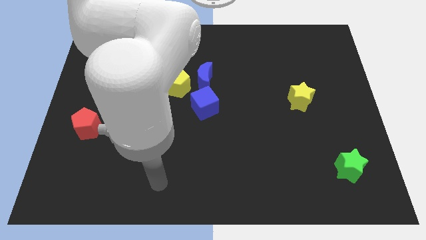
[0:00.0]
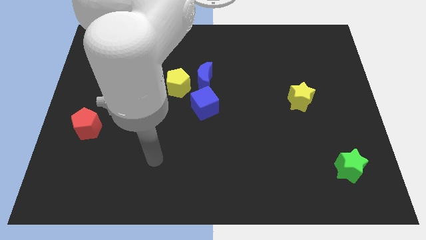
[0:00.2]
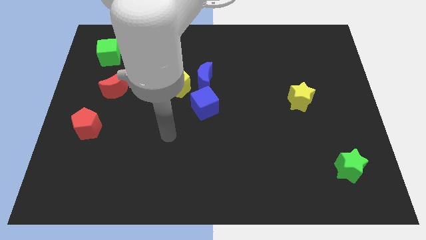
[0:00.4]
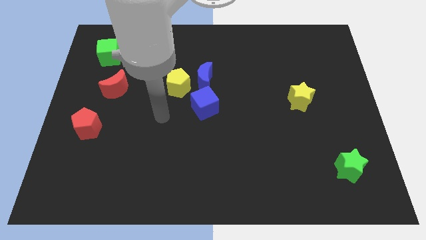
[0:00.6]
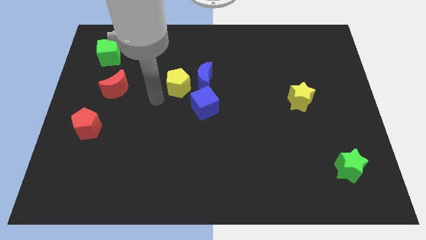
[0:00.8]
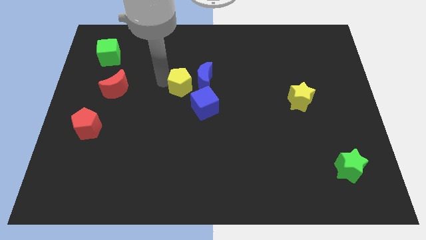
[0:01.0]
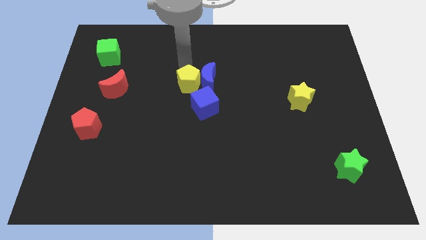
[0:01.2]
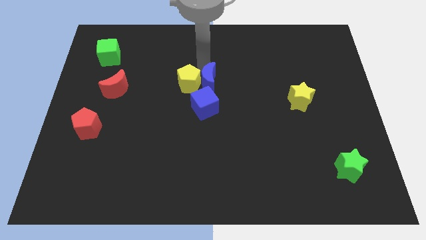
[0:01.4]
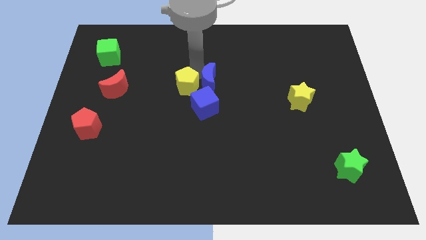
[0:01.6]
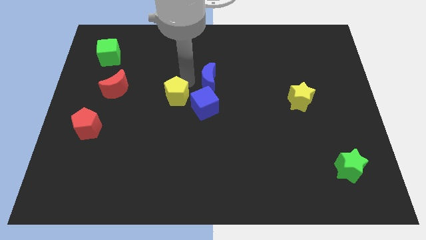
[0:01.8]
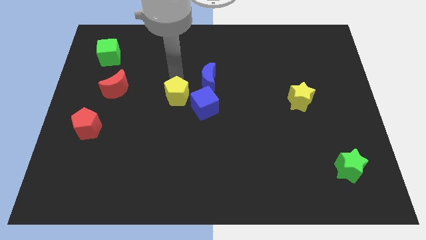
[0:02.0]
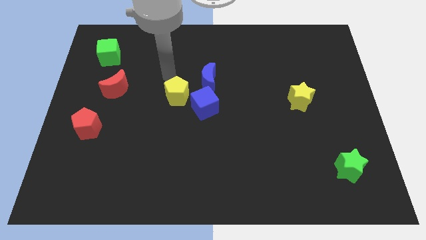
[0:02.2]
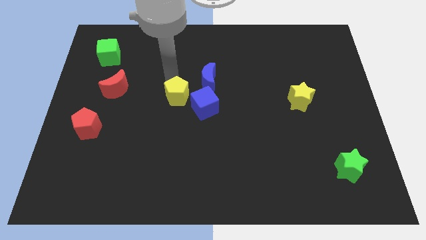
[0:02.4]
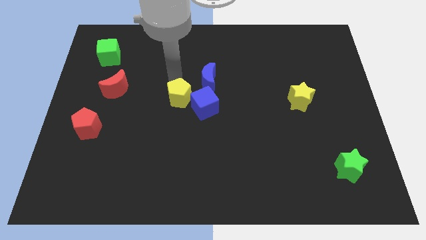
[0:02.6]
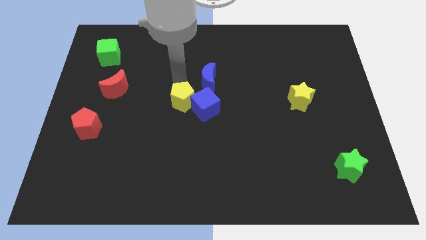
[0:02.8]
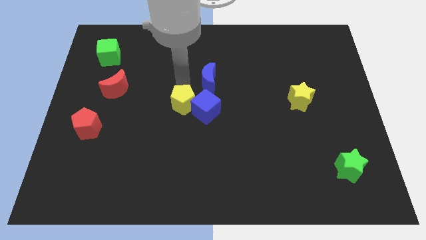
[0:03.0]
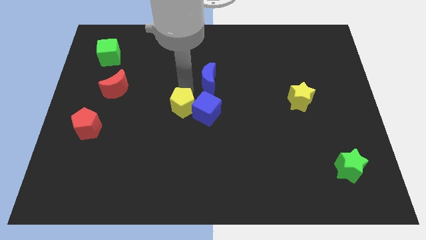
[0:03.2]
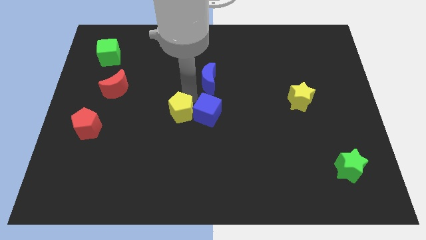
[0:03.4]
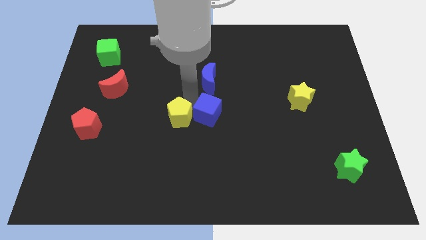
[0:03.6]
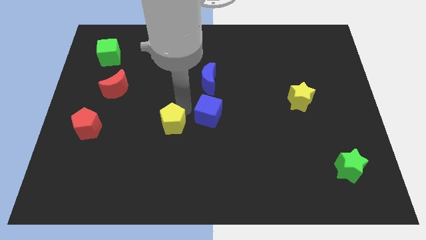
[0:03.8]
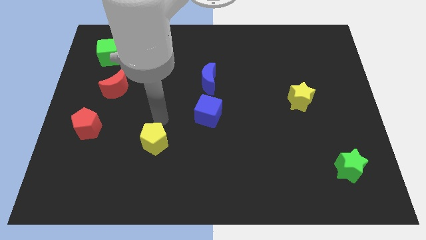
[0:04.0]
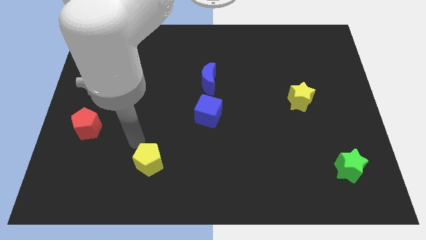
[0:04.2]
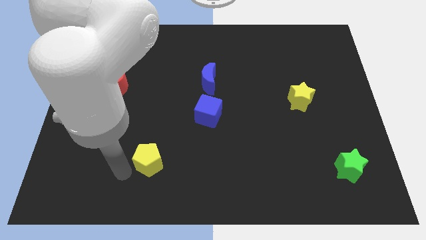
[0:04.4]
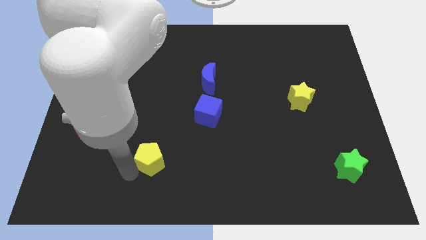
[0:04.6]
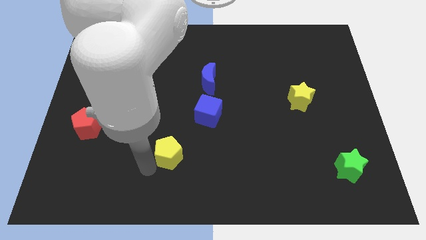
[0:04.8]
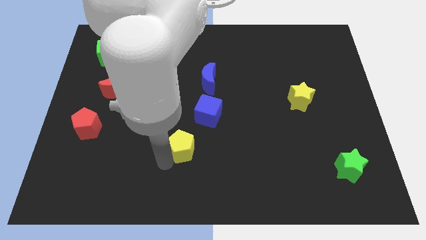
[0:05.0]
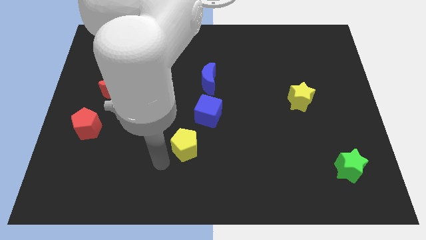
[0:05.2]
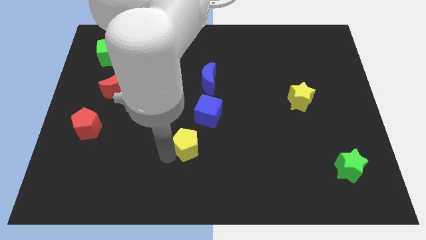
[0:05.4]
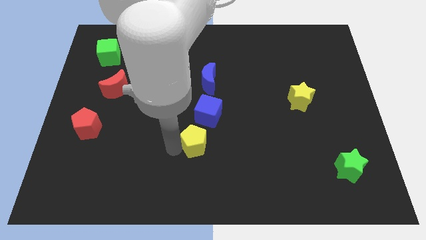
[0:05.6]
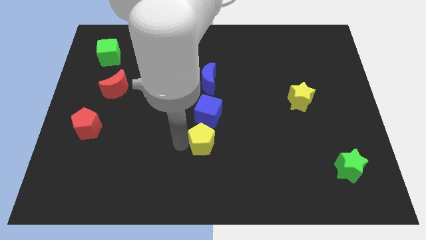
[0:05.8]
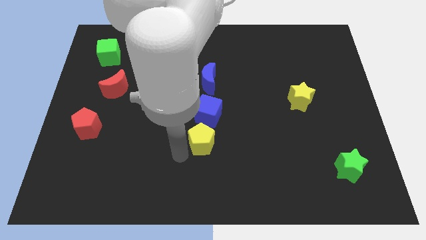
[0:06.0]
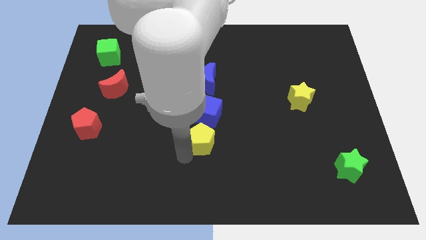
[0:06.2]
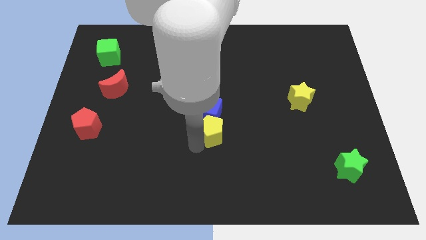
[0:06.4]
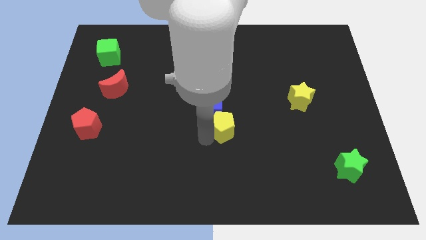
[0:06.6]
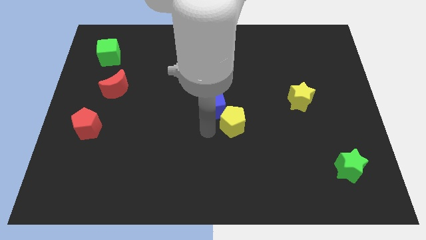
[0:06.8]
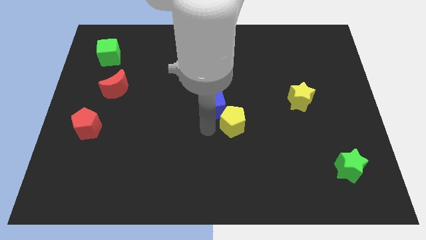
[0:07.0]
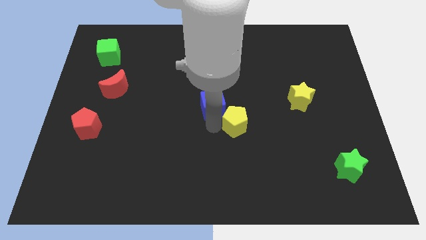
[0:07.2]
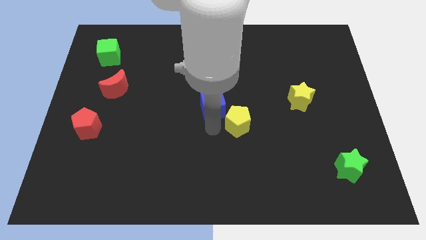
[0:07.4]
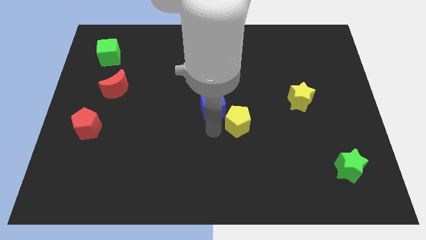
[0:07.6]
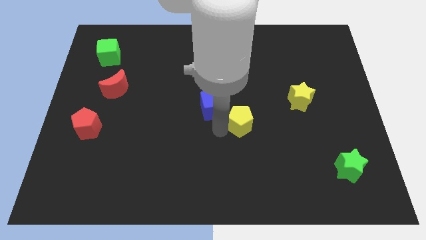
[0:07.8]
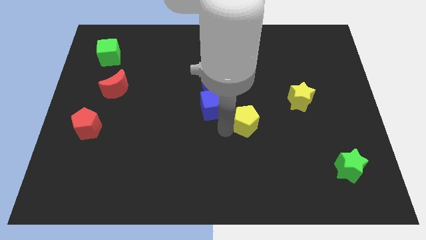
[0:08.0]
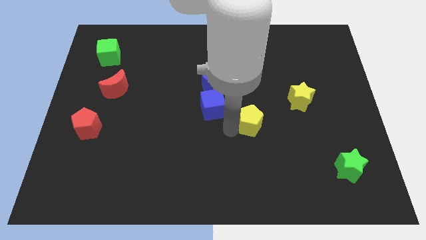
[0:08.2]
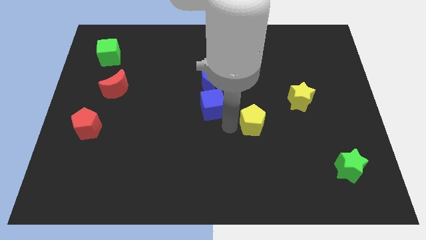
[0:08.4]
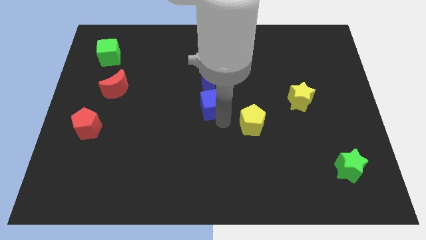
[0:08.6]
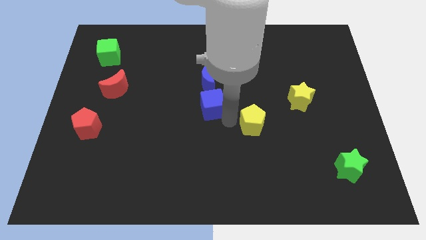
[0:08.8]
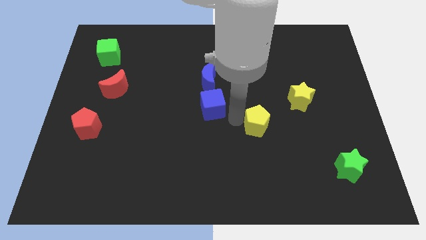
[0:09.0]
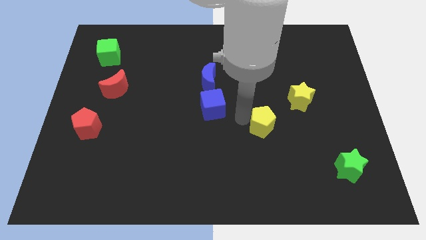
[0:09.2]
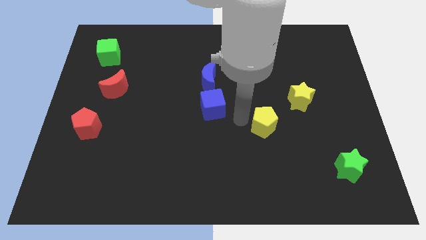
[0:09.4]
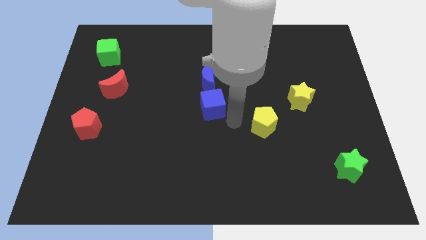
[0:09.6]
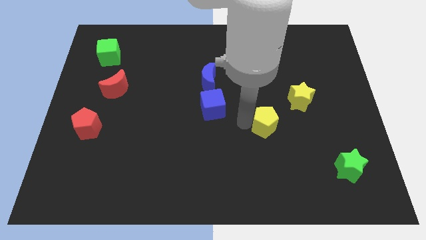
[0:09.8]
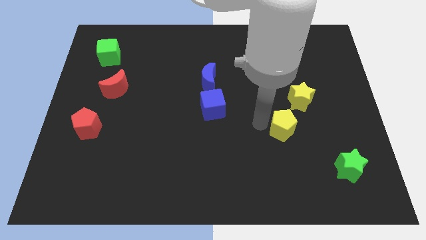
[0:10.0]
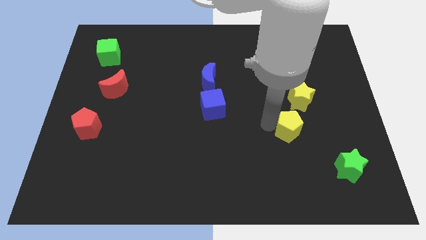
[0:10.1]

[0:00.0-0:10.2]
slide the yellow pentagon to the bottom of the yellow star

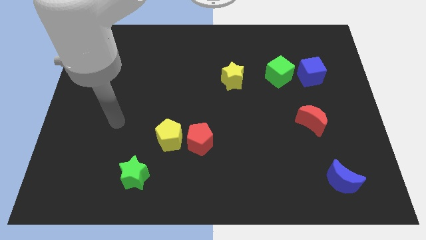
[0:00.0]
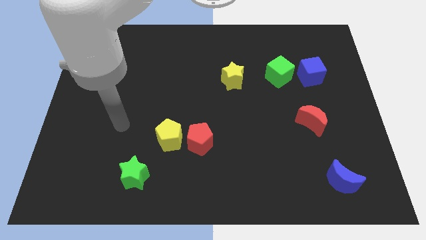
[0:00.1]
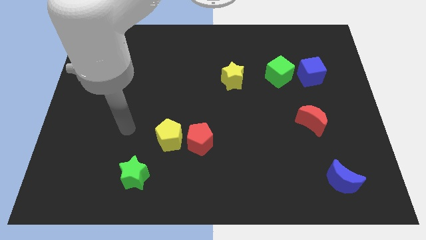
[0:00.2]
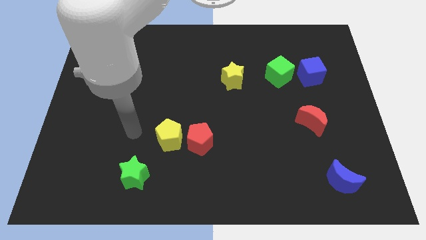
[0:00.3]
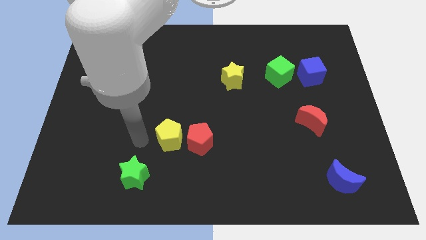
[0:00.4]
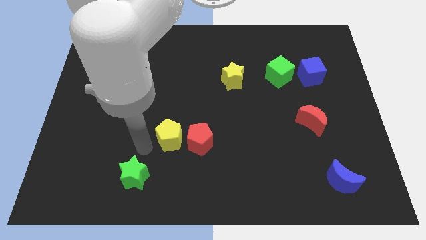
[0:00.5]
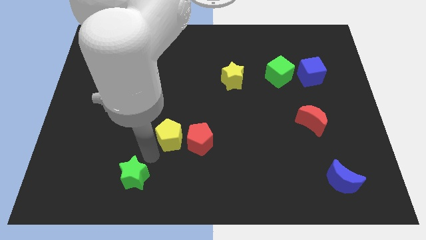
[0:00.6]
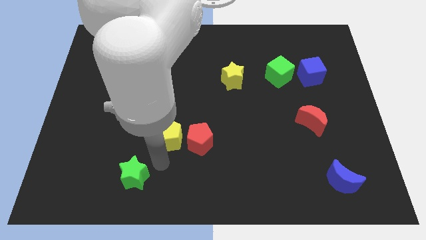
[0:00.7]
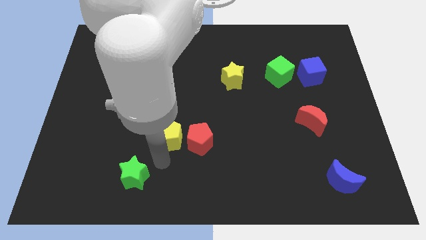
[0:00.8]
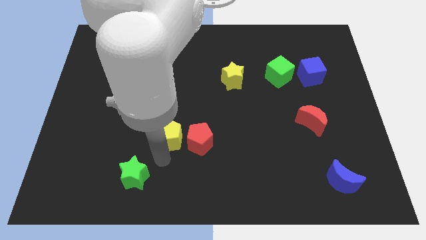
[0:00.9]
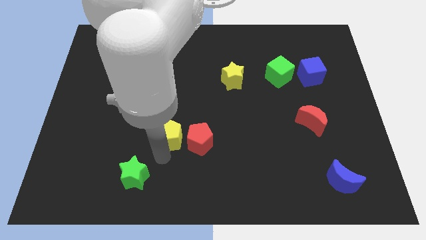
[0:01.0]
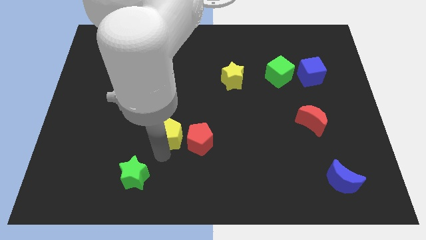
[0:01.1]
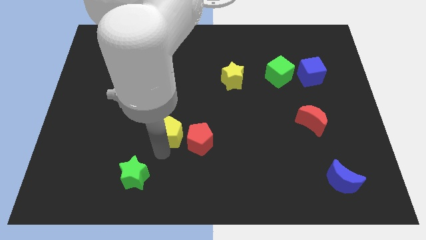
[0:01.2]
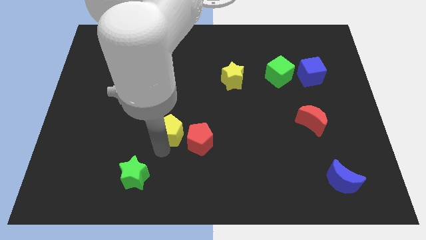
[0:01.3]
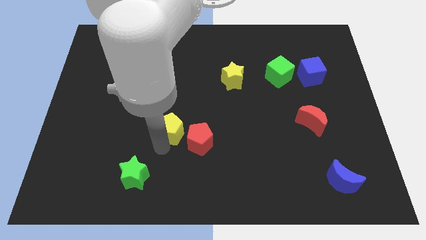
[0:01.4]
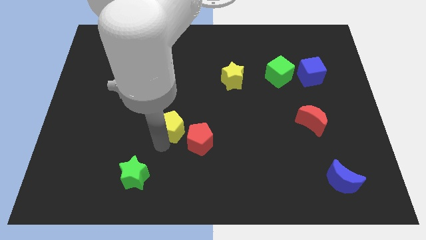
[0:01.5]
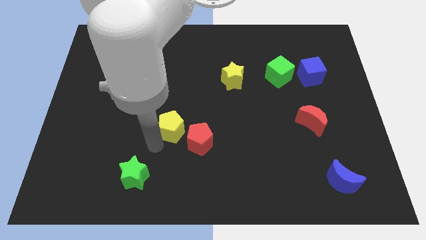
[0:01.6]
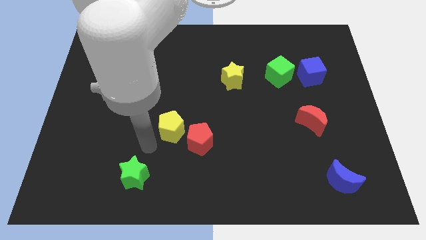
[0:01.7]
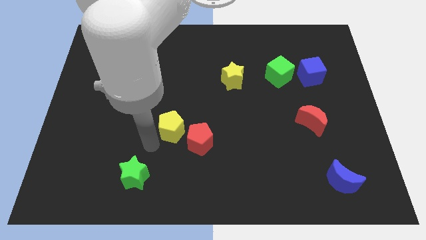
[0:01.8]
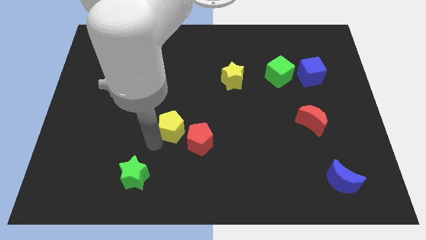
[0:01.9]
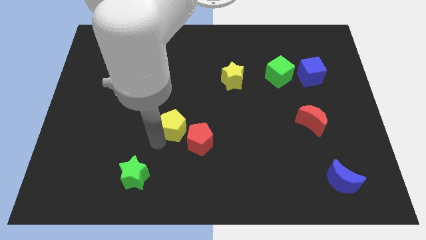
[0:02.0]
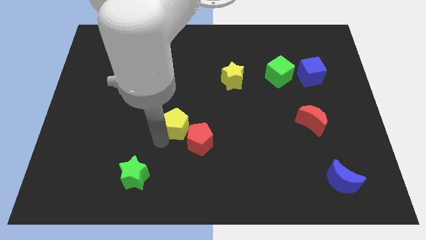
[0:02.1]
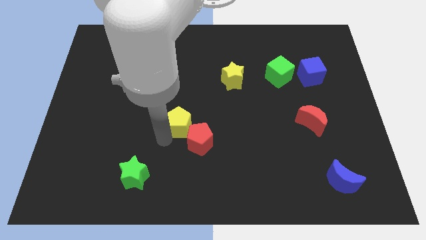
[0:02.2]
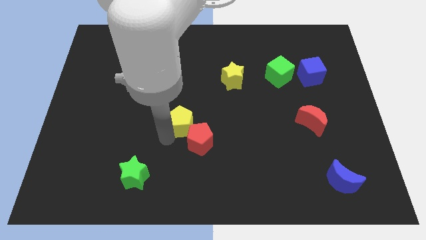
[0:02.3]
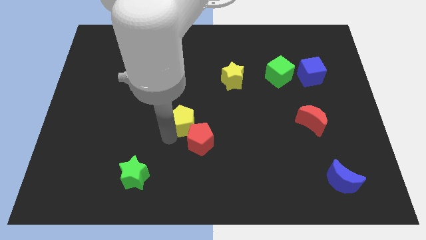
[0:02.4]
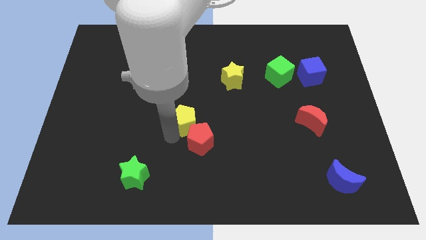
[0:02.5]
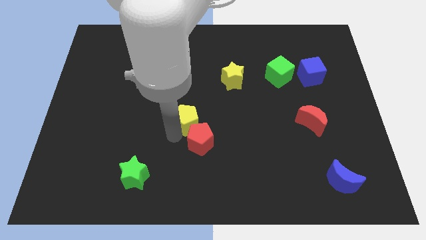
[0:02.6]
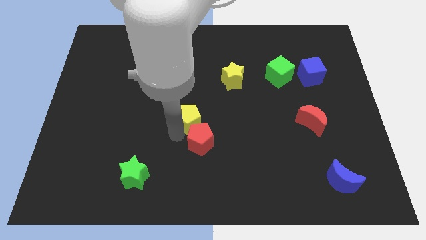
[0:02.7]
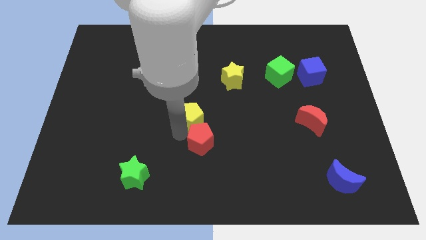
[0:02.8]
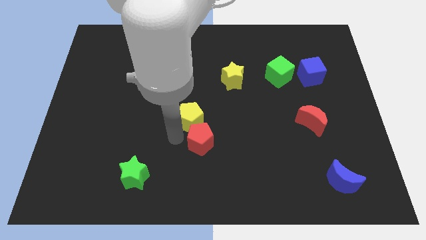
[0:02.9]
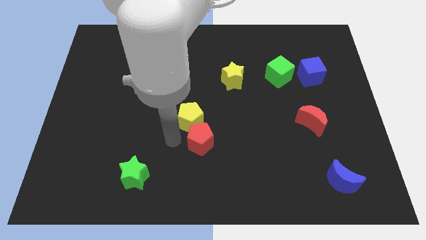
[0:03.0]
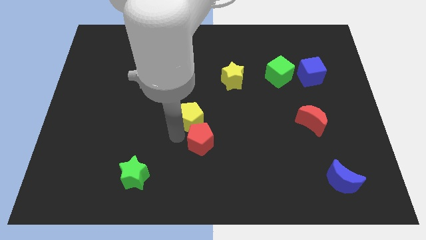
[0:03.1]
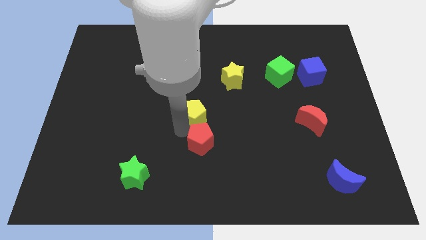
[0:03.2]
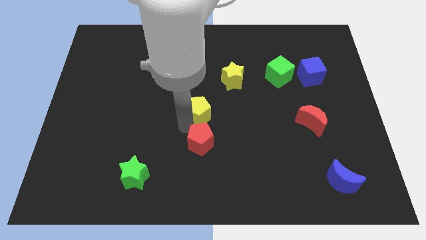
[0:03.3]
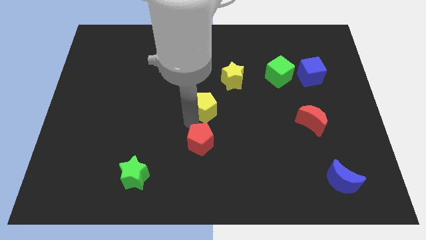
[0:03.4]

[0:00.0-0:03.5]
slide the yellow pentagon to the bottom left side of the yellow star
